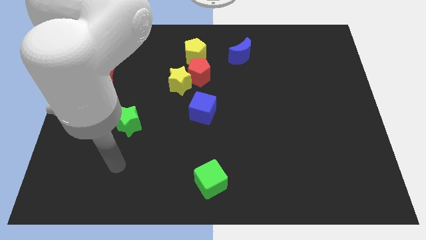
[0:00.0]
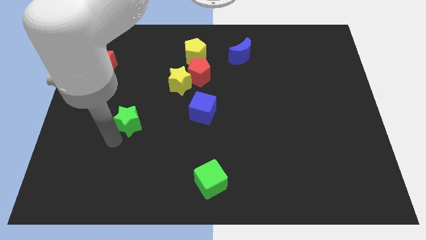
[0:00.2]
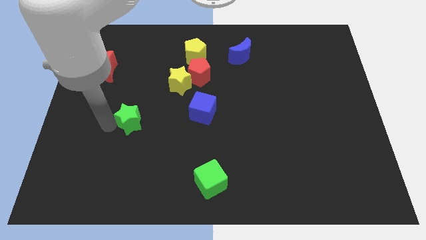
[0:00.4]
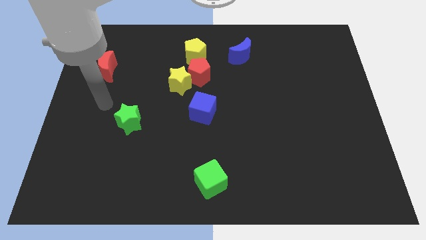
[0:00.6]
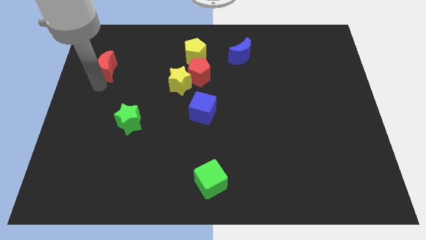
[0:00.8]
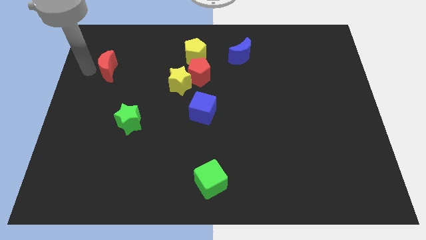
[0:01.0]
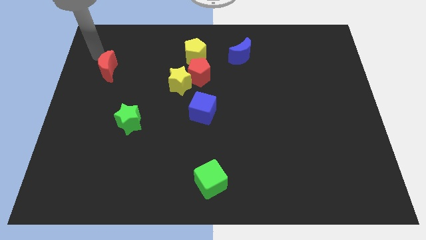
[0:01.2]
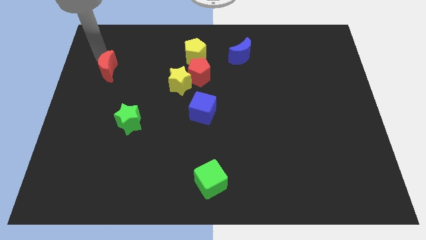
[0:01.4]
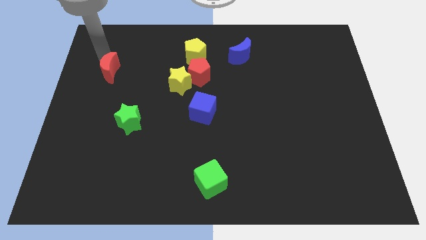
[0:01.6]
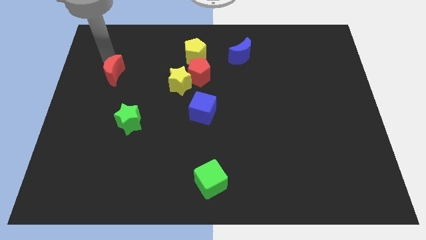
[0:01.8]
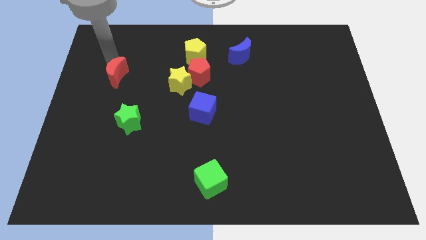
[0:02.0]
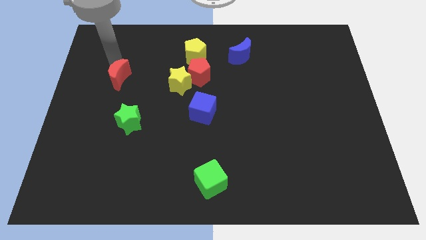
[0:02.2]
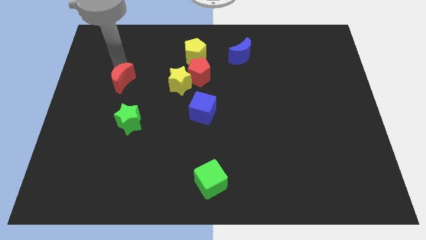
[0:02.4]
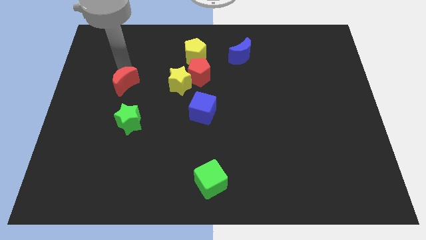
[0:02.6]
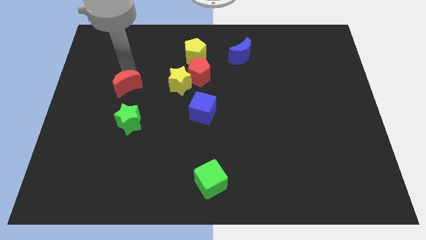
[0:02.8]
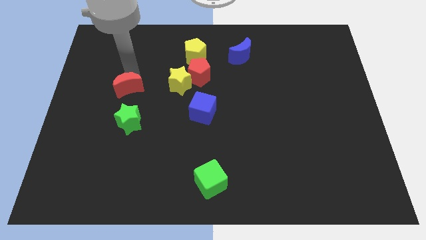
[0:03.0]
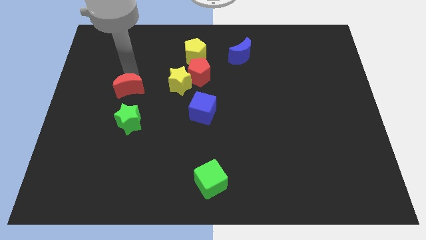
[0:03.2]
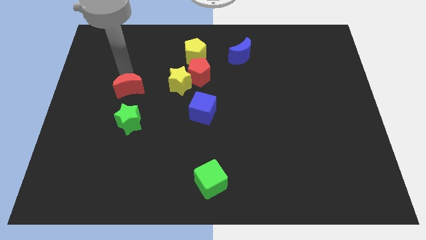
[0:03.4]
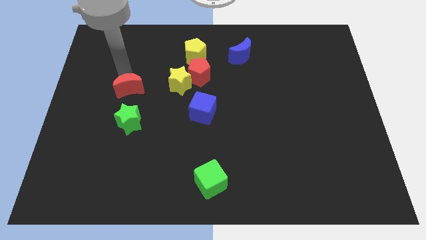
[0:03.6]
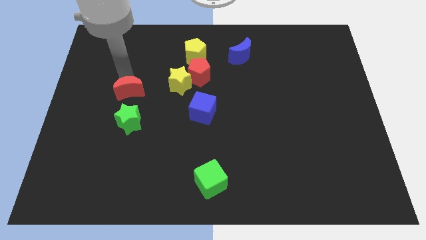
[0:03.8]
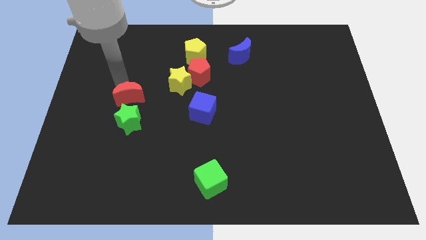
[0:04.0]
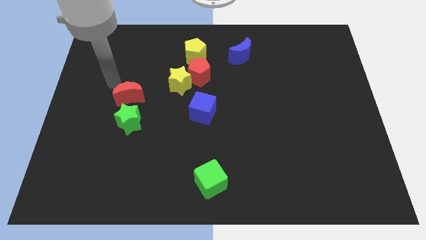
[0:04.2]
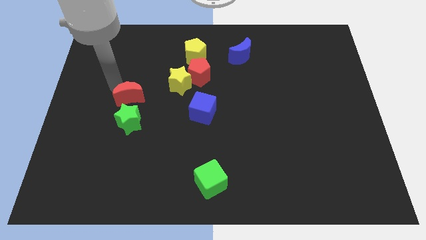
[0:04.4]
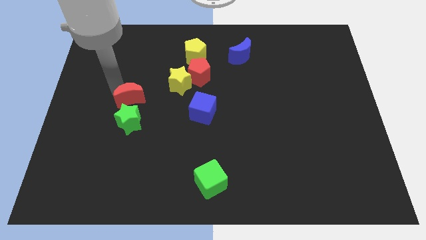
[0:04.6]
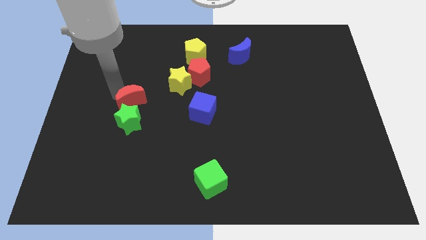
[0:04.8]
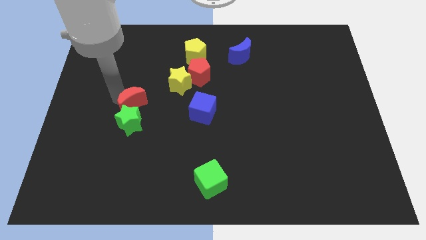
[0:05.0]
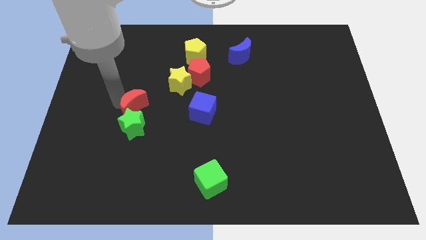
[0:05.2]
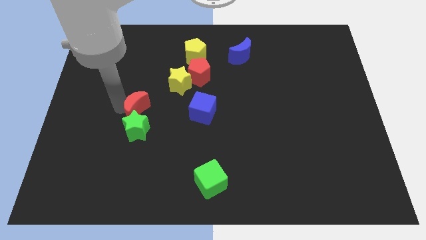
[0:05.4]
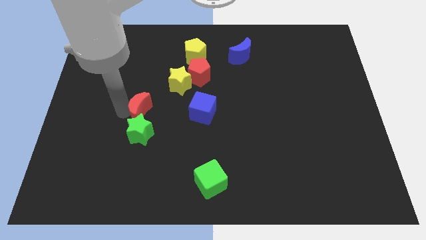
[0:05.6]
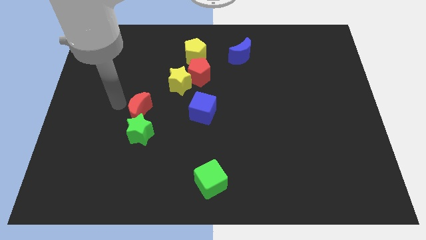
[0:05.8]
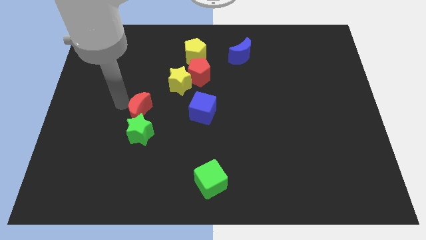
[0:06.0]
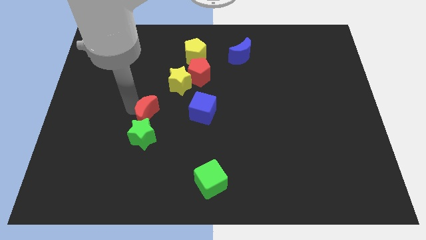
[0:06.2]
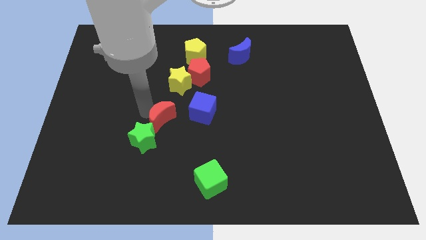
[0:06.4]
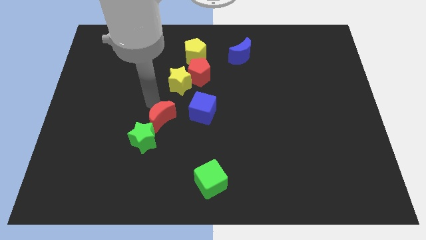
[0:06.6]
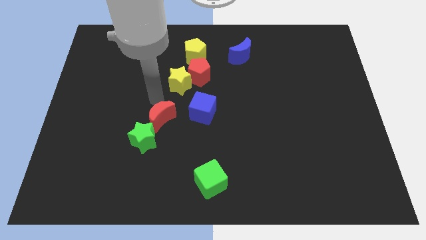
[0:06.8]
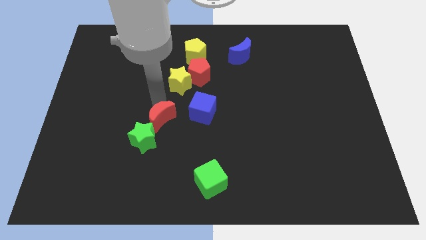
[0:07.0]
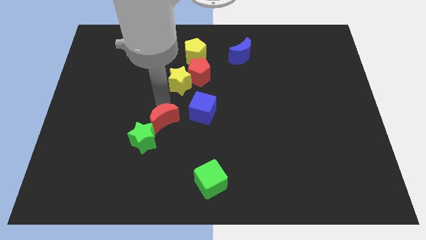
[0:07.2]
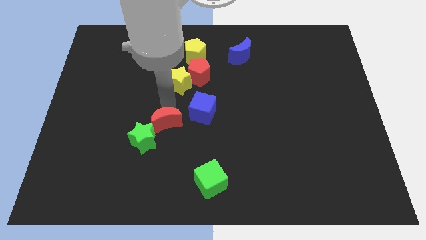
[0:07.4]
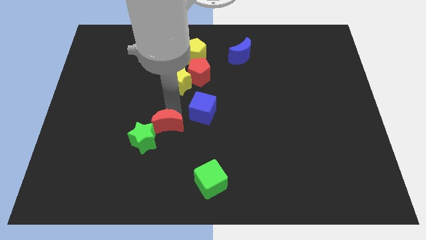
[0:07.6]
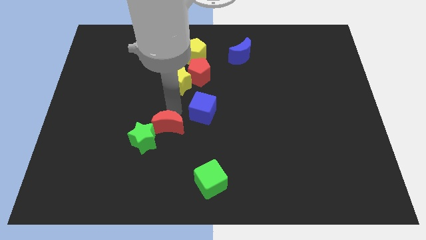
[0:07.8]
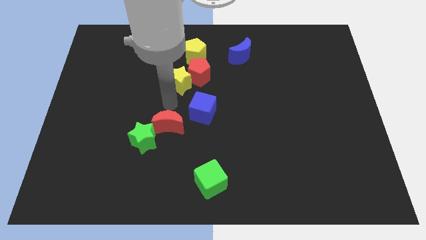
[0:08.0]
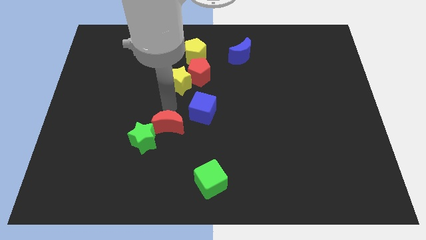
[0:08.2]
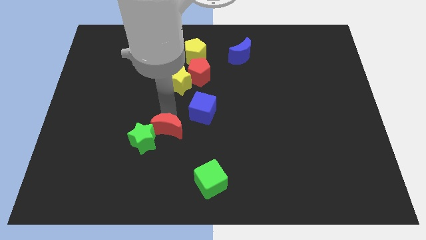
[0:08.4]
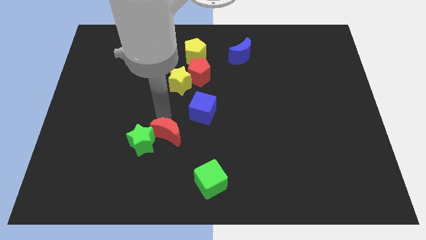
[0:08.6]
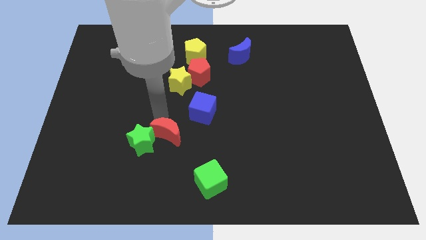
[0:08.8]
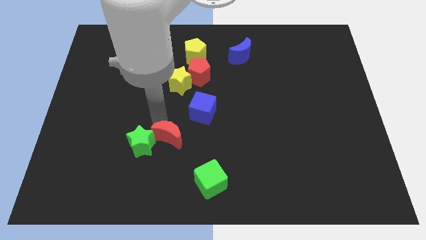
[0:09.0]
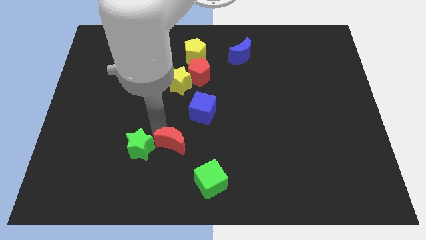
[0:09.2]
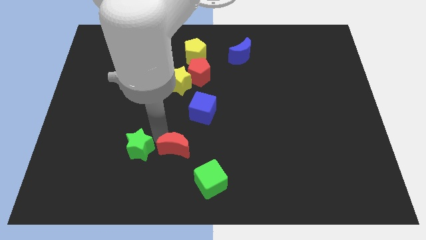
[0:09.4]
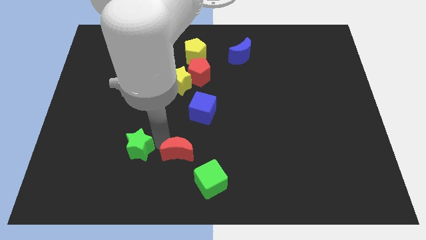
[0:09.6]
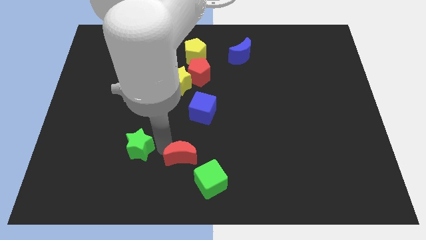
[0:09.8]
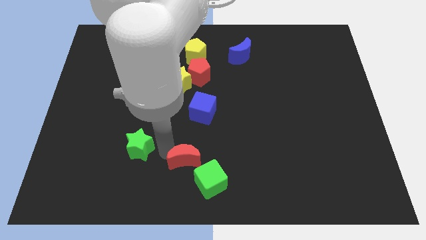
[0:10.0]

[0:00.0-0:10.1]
slide the red moon to the bottom

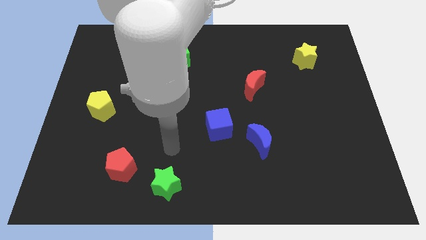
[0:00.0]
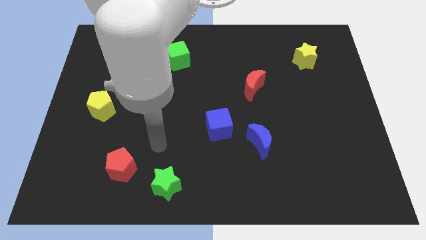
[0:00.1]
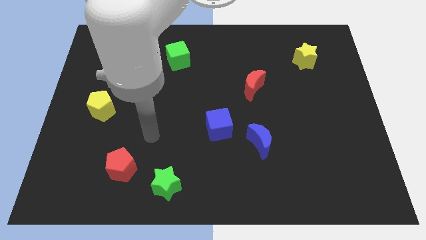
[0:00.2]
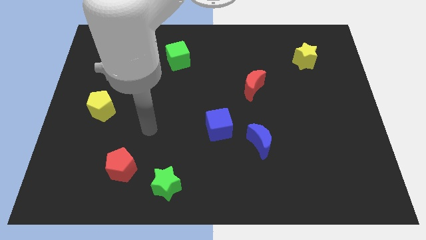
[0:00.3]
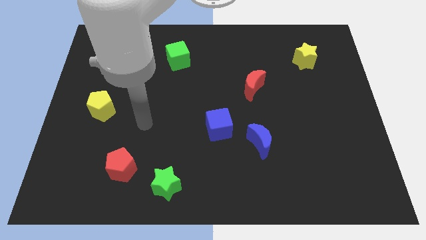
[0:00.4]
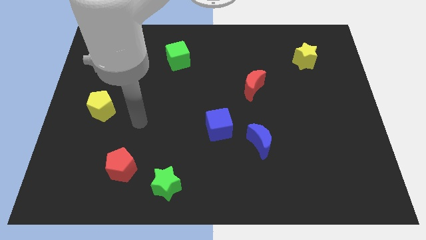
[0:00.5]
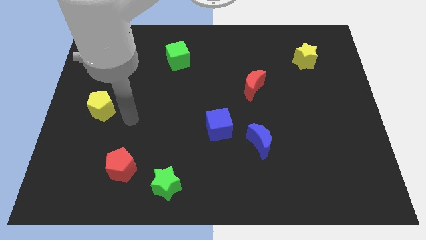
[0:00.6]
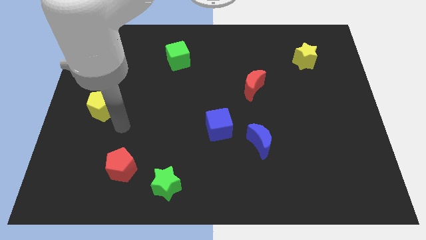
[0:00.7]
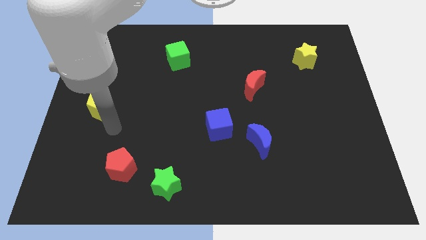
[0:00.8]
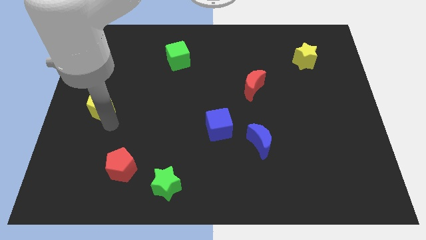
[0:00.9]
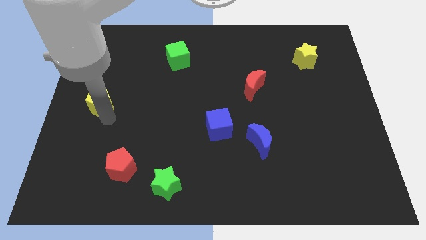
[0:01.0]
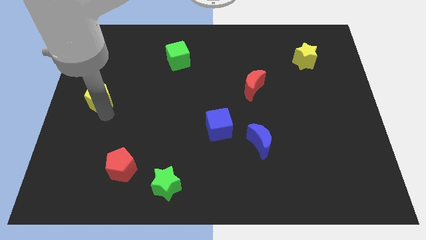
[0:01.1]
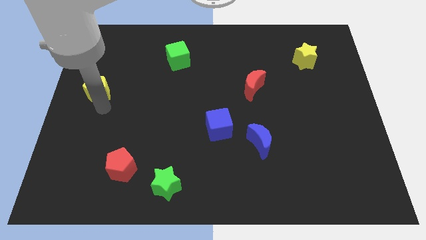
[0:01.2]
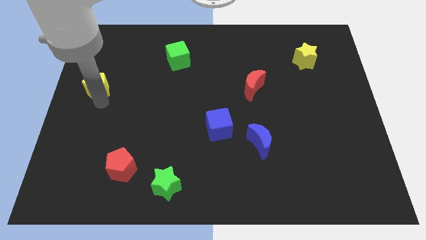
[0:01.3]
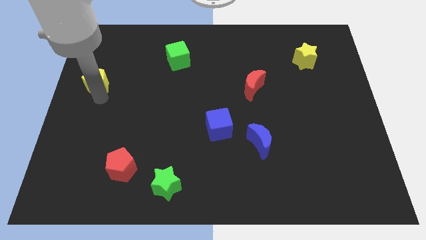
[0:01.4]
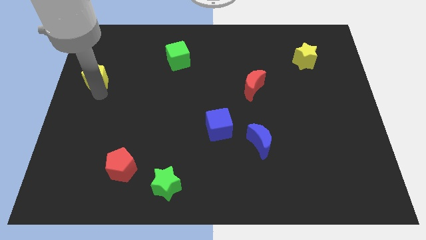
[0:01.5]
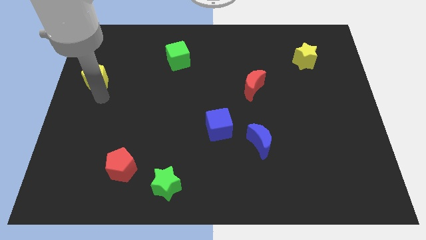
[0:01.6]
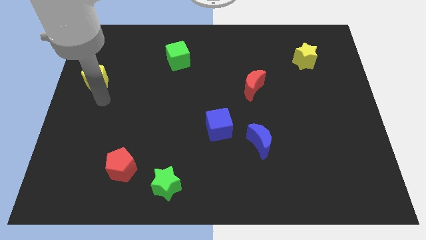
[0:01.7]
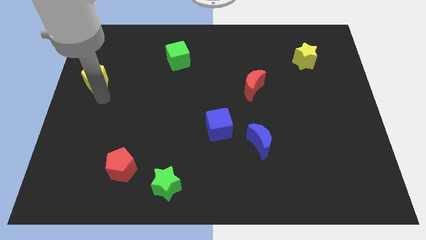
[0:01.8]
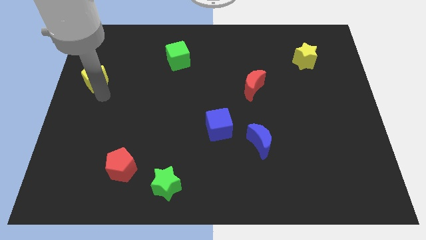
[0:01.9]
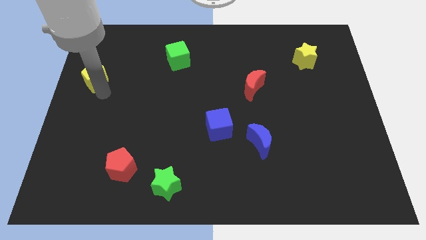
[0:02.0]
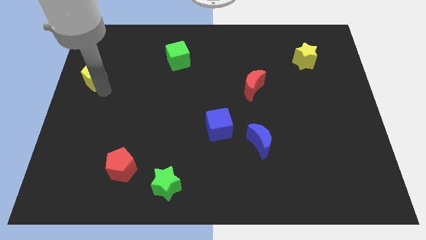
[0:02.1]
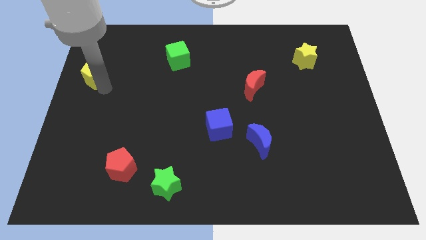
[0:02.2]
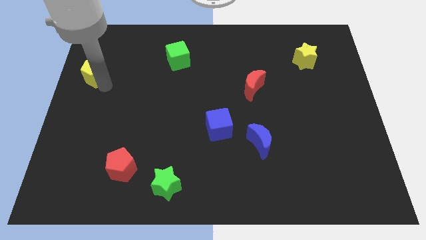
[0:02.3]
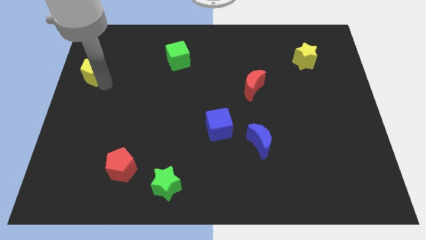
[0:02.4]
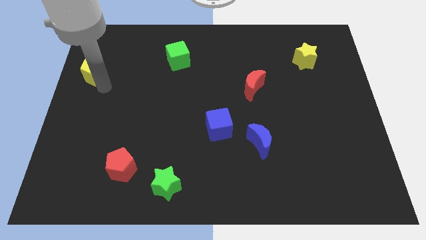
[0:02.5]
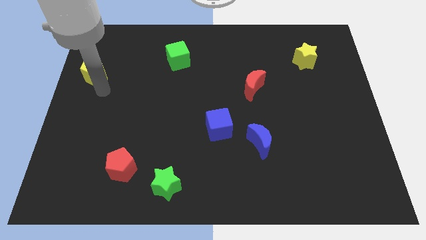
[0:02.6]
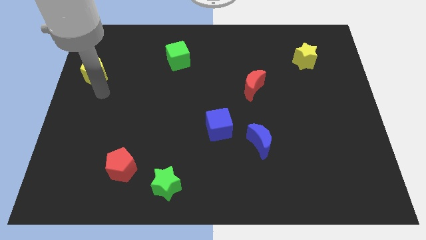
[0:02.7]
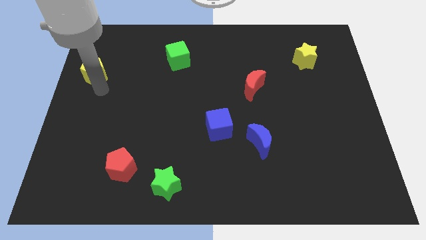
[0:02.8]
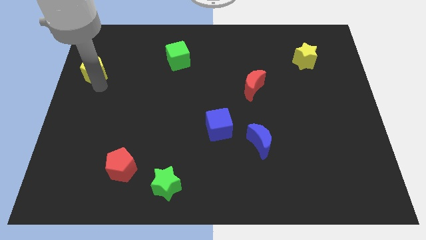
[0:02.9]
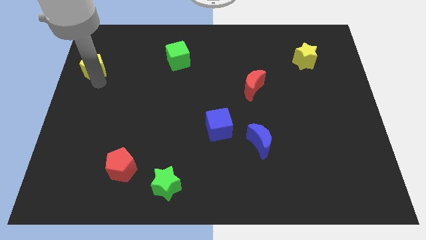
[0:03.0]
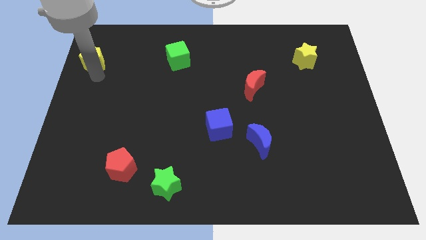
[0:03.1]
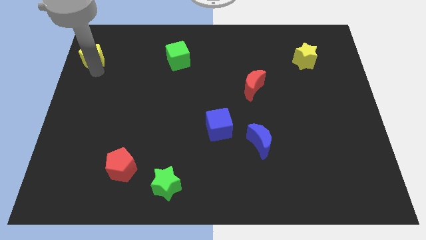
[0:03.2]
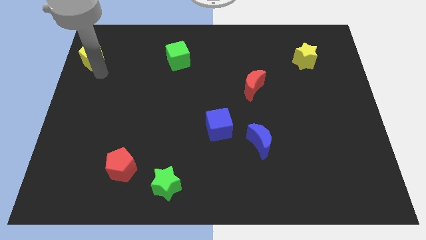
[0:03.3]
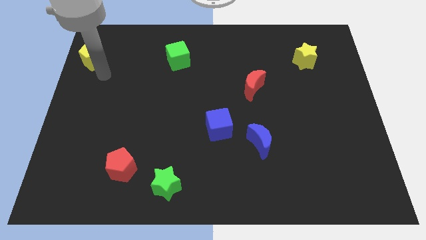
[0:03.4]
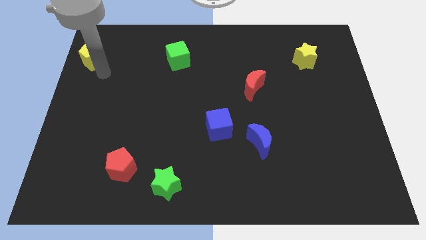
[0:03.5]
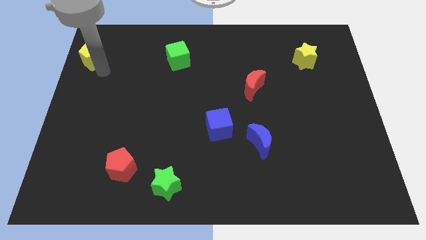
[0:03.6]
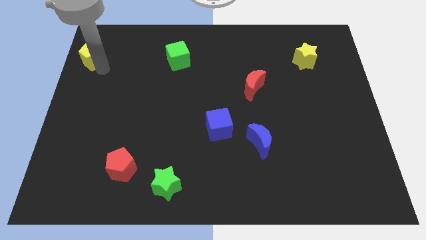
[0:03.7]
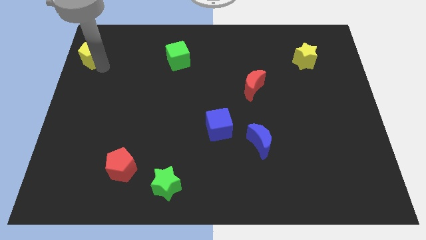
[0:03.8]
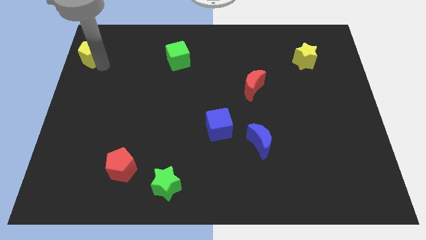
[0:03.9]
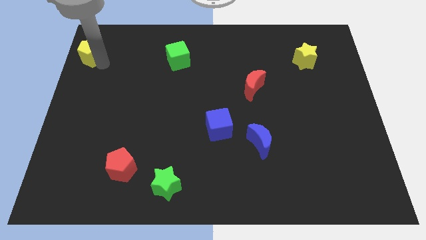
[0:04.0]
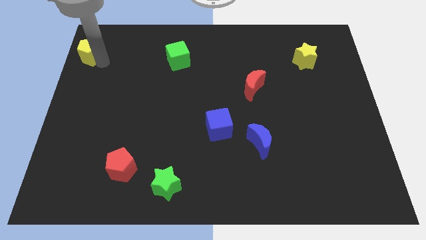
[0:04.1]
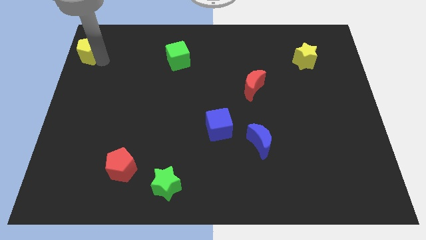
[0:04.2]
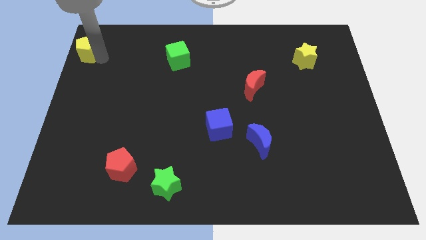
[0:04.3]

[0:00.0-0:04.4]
slide the yellow pentagon to the top left corner
